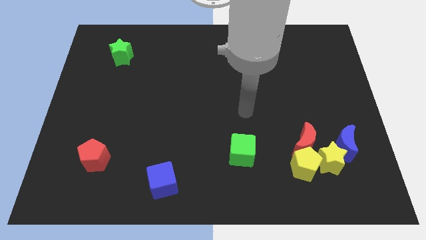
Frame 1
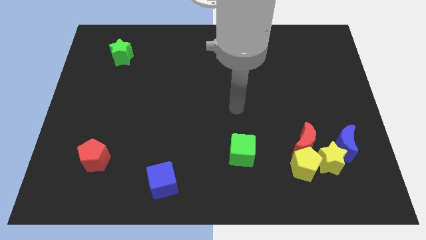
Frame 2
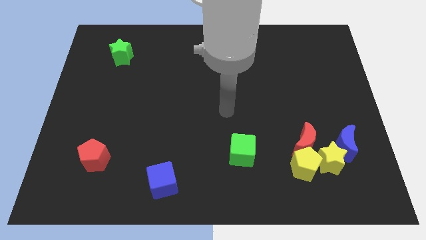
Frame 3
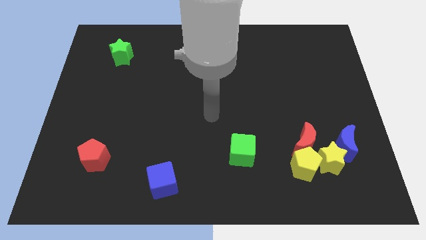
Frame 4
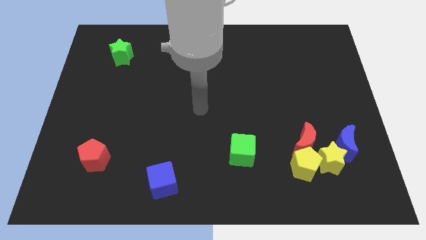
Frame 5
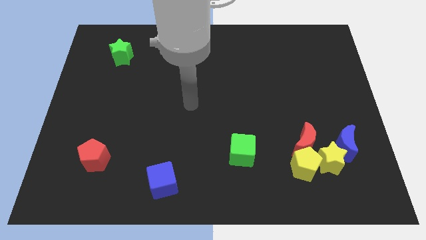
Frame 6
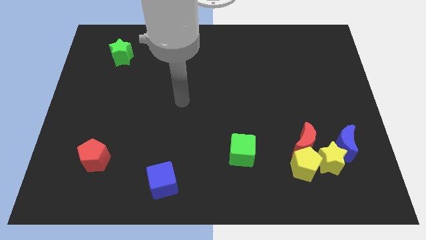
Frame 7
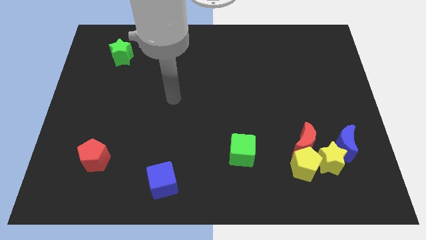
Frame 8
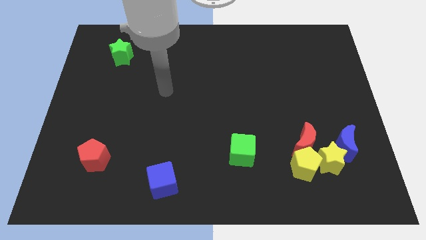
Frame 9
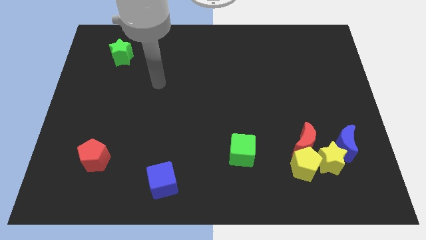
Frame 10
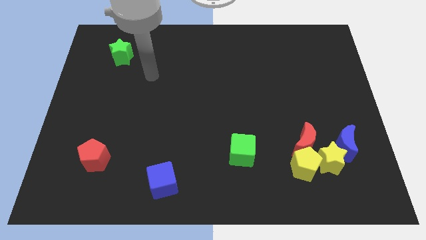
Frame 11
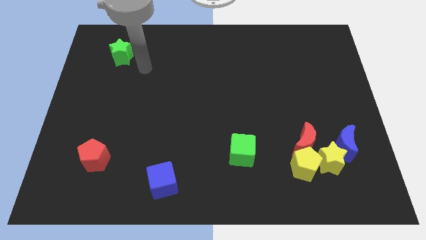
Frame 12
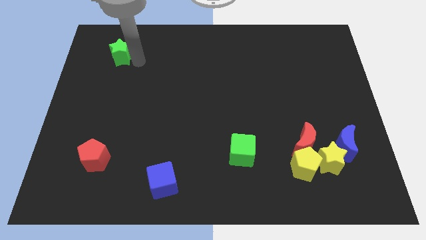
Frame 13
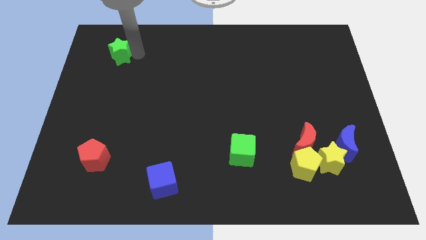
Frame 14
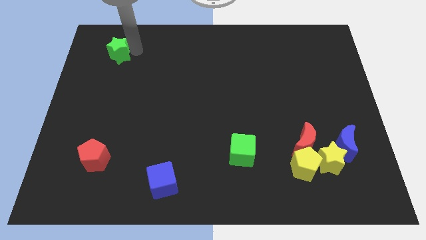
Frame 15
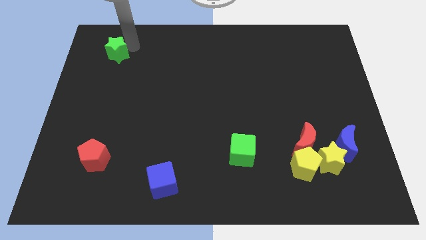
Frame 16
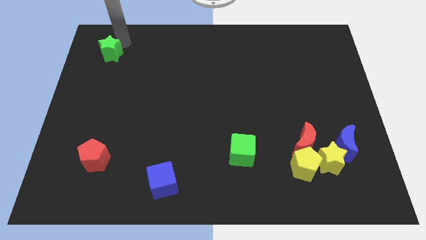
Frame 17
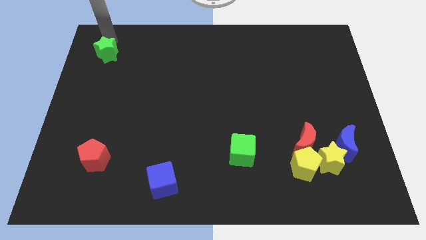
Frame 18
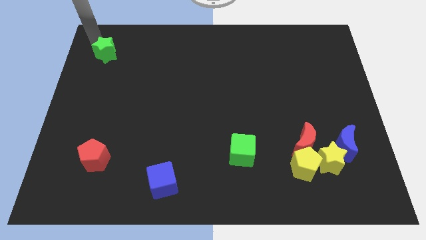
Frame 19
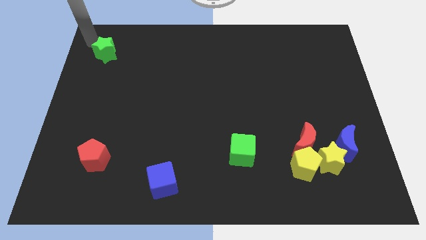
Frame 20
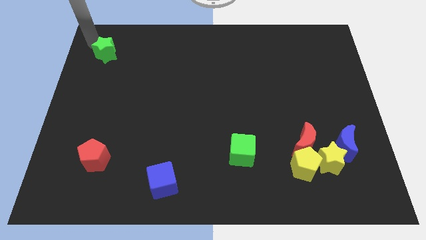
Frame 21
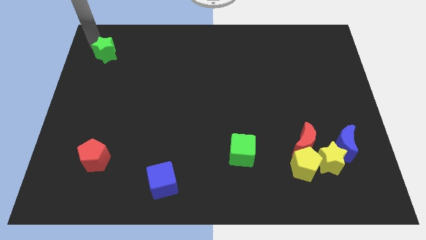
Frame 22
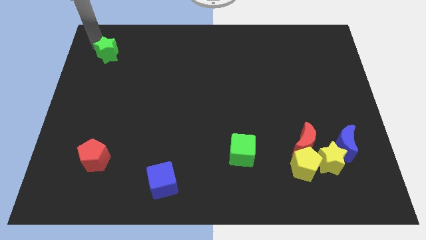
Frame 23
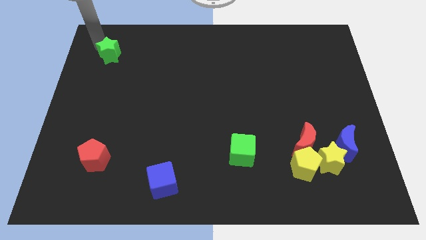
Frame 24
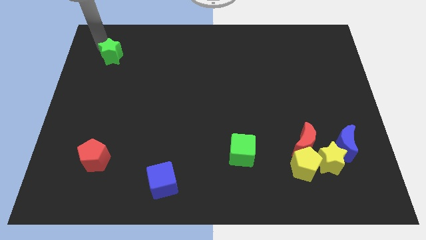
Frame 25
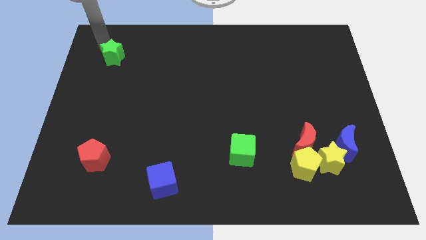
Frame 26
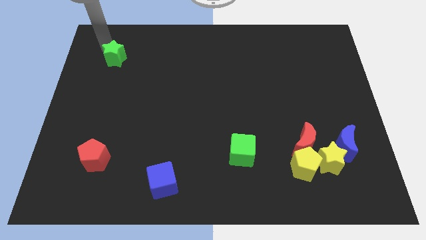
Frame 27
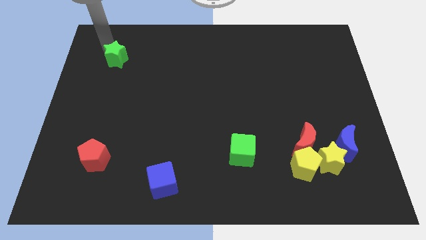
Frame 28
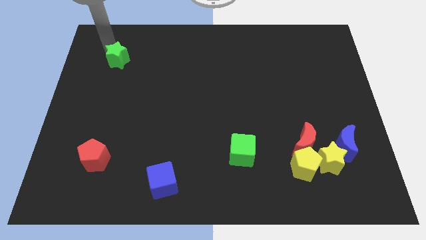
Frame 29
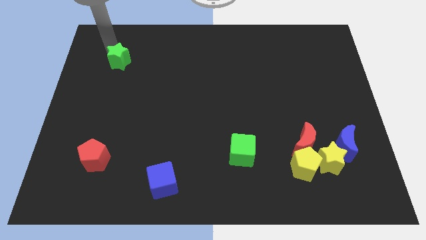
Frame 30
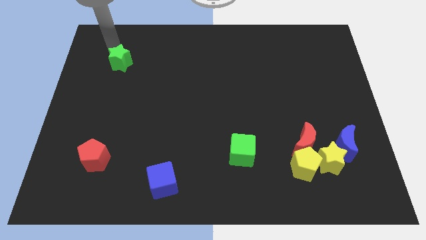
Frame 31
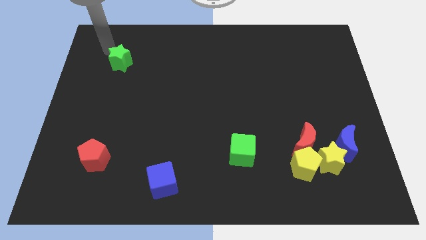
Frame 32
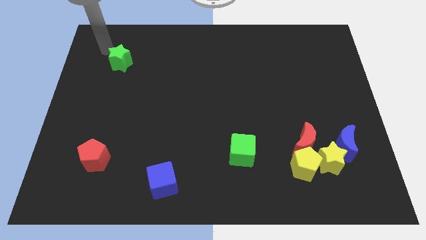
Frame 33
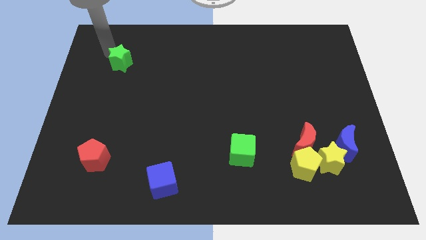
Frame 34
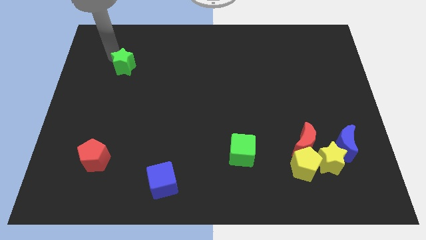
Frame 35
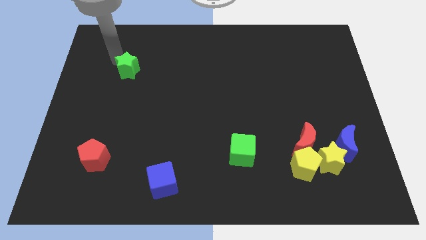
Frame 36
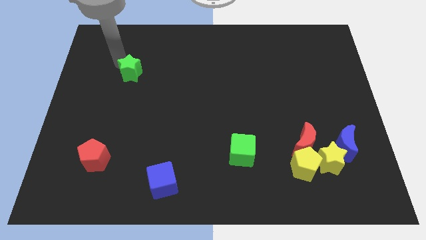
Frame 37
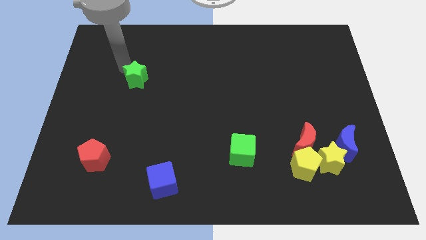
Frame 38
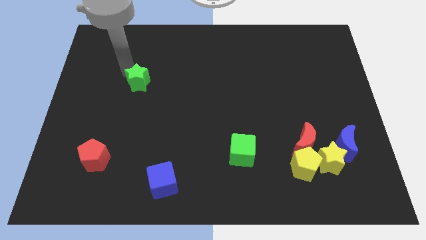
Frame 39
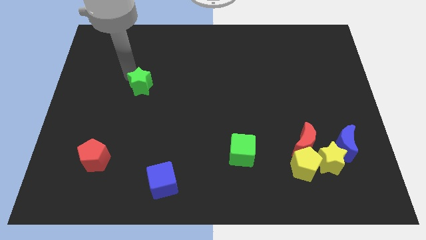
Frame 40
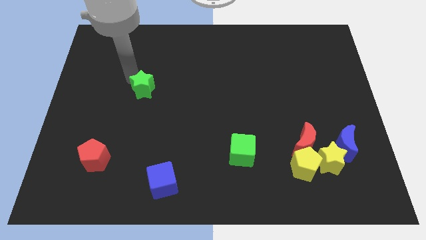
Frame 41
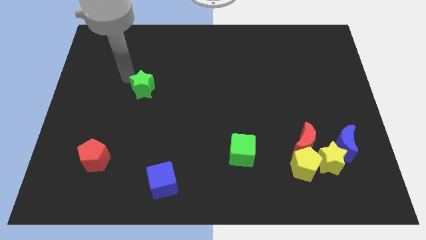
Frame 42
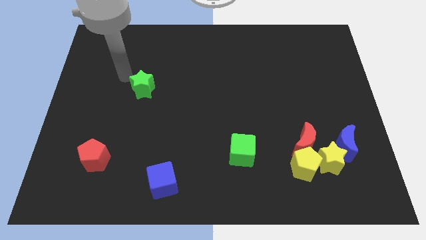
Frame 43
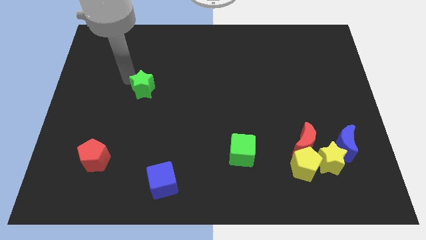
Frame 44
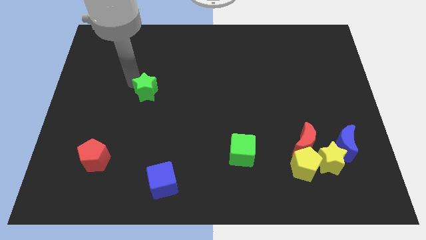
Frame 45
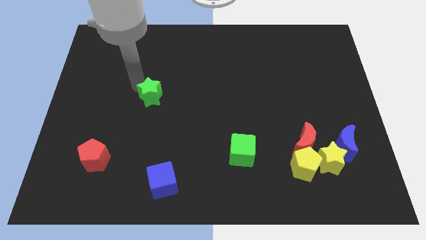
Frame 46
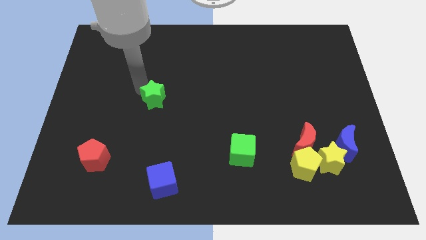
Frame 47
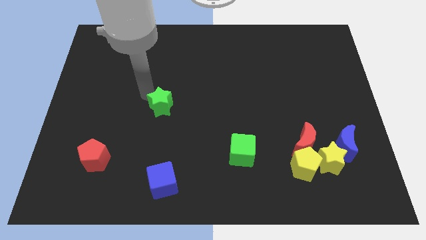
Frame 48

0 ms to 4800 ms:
slide the green star down and to the right

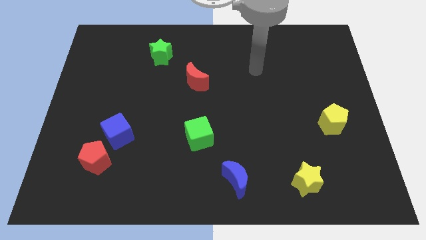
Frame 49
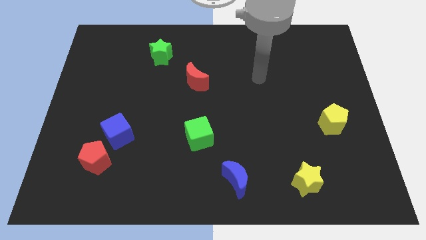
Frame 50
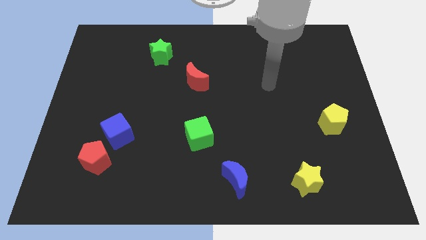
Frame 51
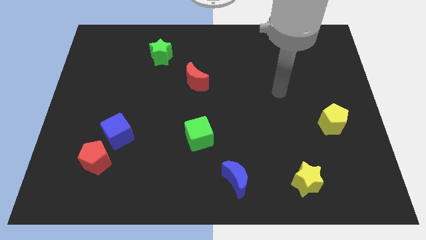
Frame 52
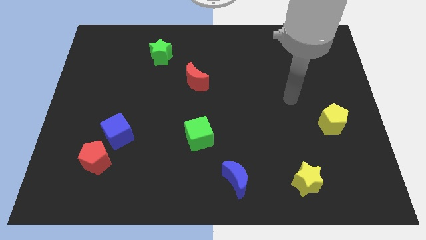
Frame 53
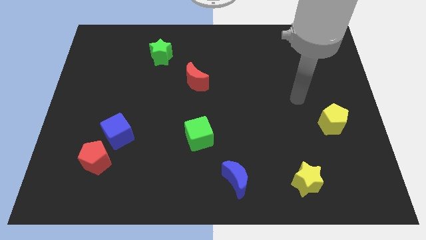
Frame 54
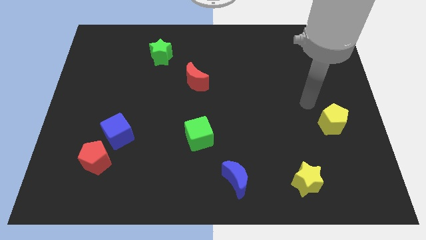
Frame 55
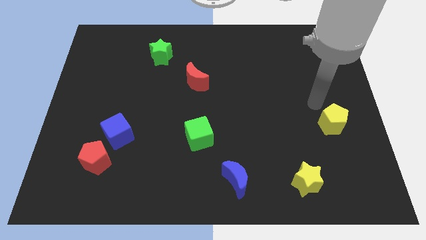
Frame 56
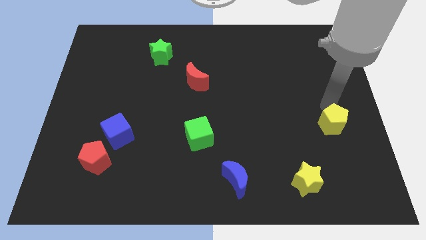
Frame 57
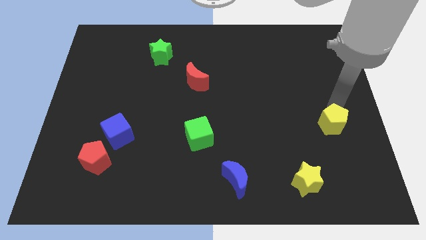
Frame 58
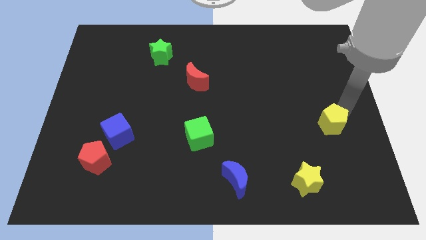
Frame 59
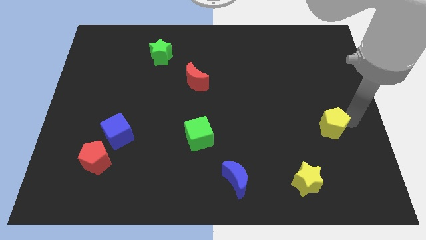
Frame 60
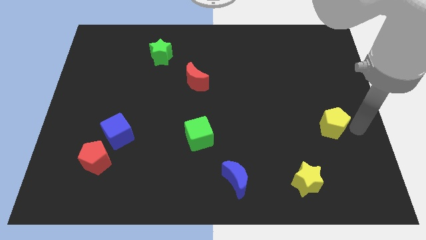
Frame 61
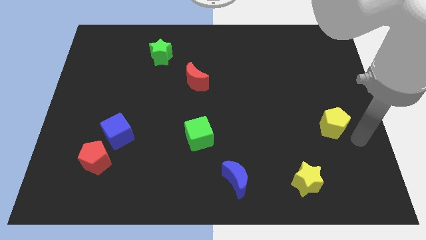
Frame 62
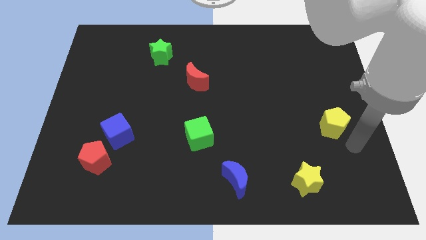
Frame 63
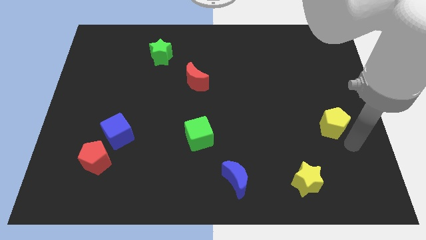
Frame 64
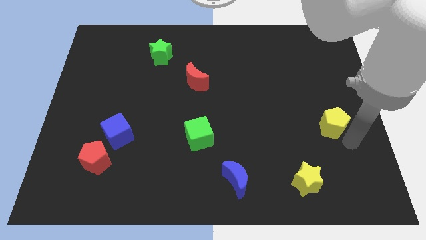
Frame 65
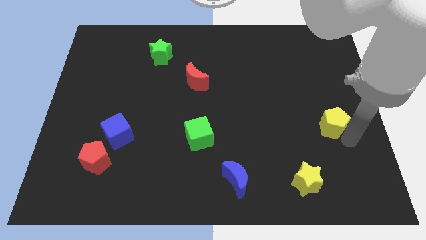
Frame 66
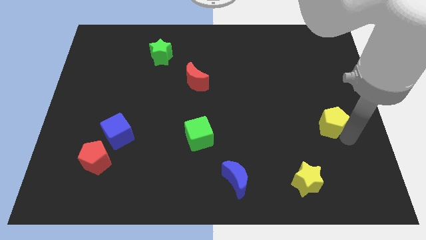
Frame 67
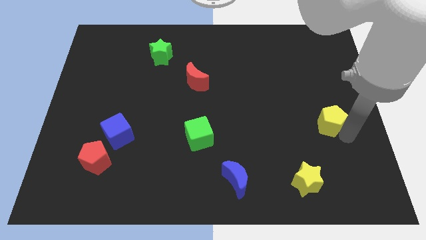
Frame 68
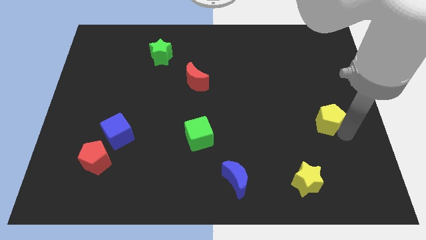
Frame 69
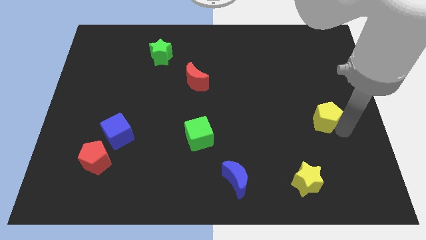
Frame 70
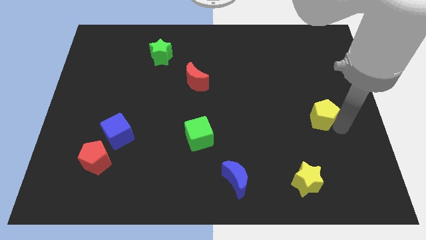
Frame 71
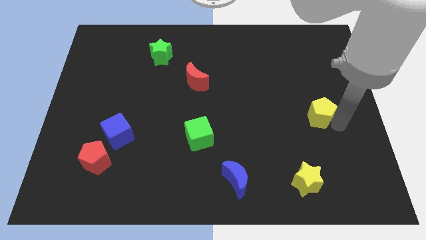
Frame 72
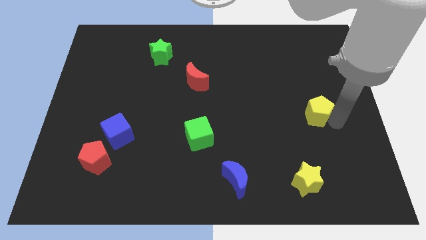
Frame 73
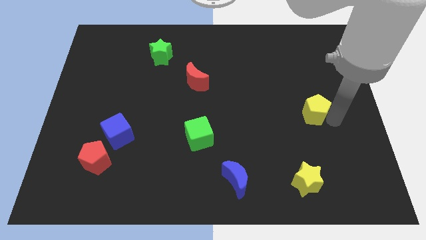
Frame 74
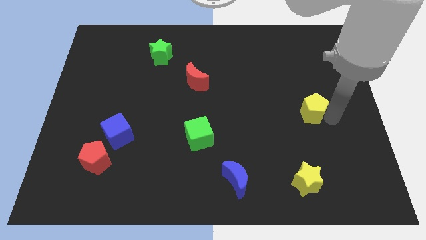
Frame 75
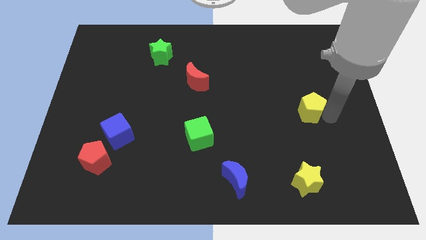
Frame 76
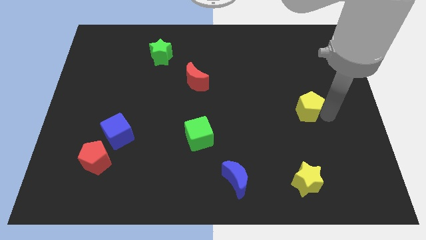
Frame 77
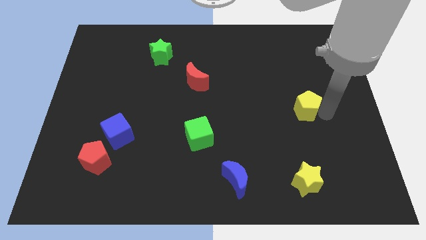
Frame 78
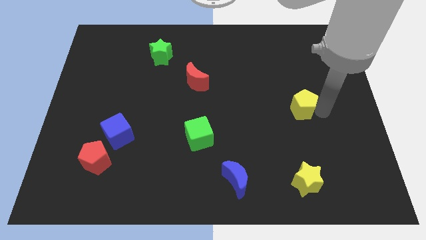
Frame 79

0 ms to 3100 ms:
slightly move the yellow pentagon diagonally upwards and to the left

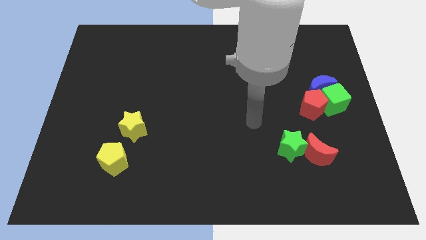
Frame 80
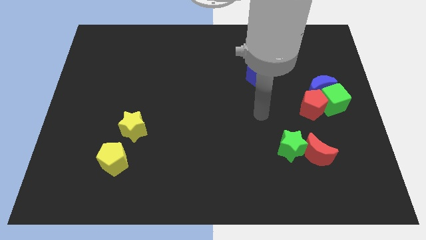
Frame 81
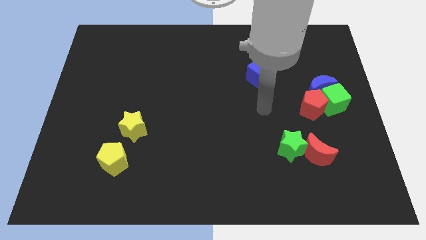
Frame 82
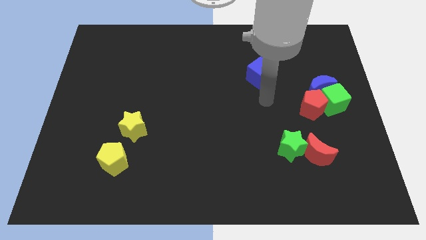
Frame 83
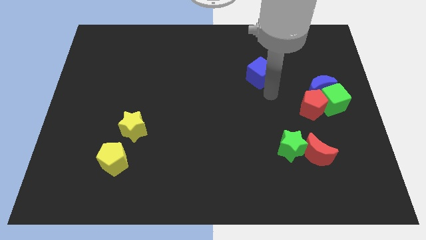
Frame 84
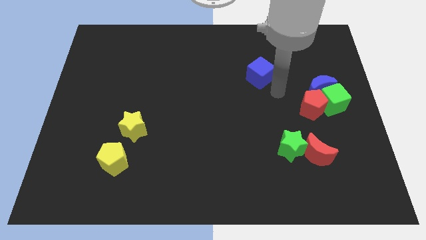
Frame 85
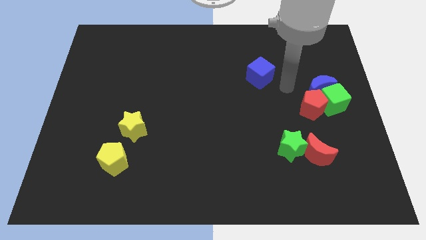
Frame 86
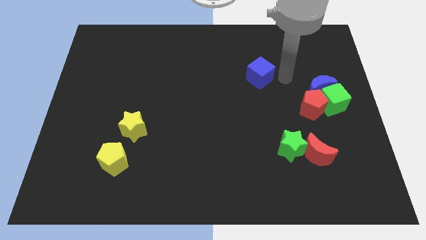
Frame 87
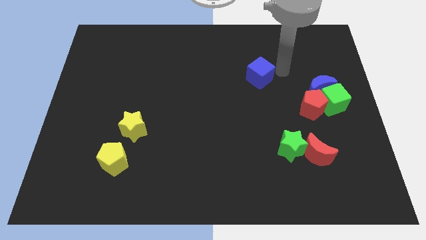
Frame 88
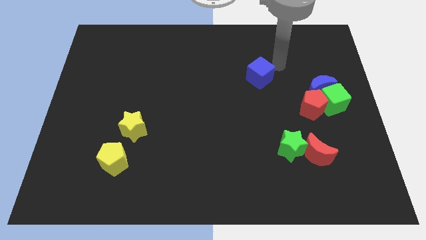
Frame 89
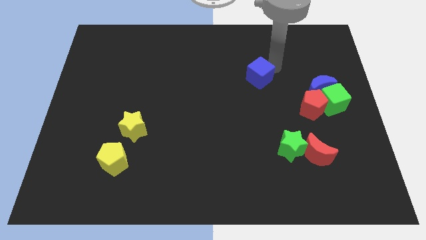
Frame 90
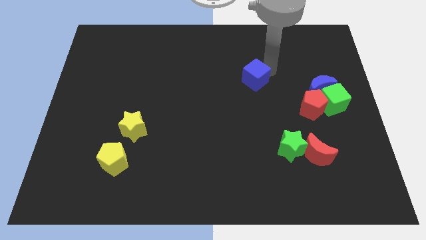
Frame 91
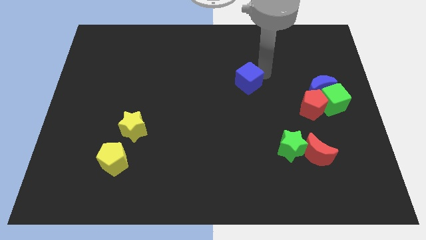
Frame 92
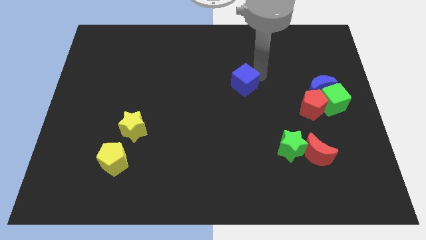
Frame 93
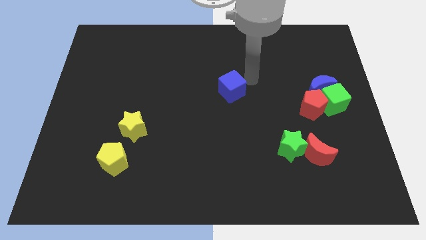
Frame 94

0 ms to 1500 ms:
move the blue cube down and to the left diagonally slightly
